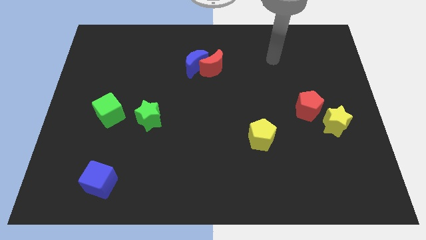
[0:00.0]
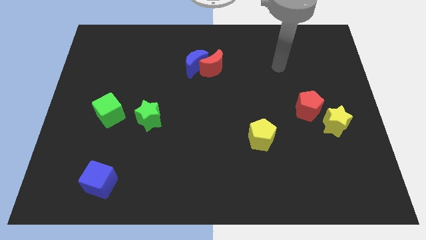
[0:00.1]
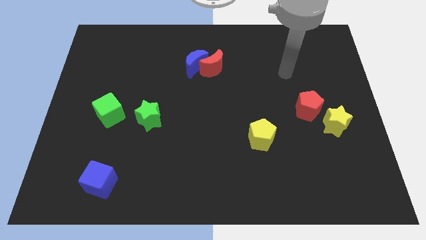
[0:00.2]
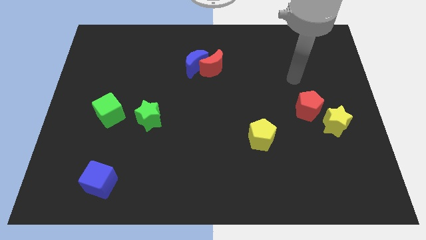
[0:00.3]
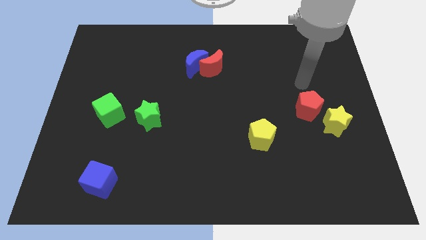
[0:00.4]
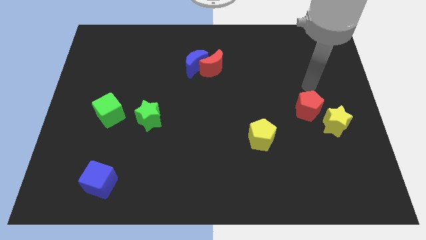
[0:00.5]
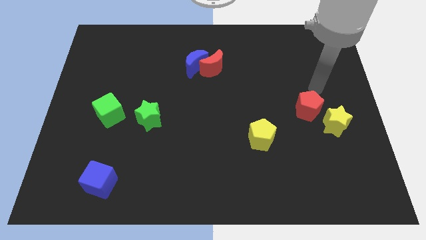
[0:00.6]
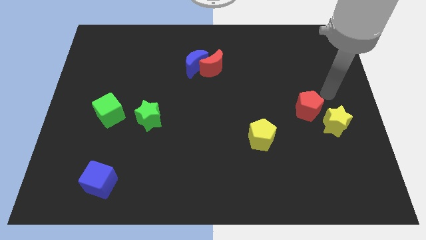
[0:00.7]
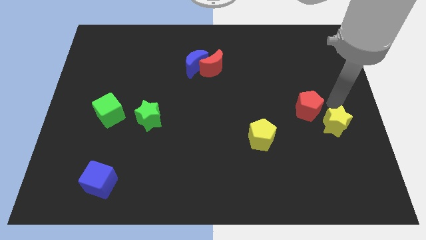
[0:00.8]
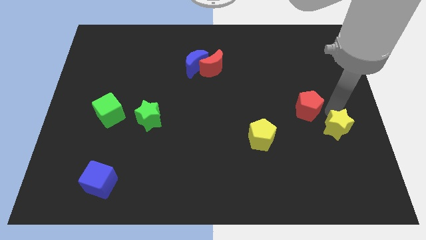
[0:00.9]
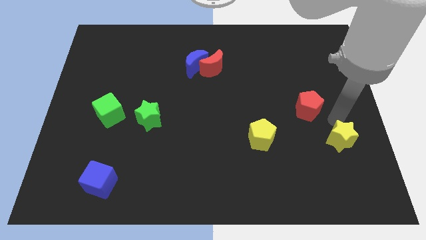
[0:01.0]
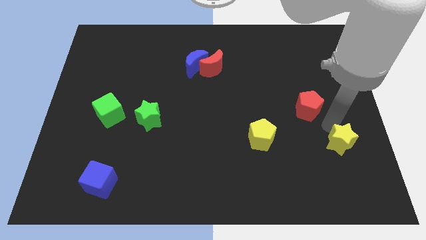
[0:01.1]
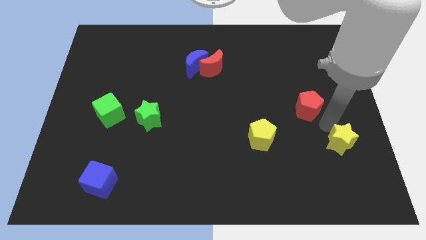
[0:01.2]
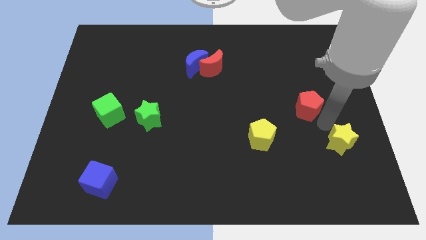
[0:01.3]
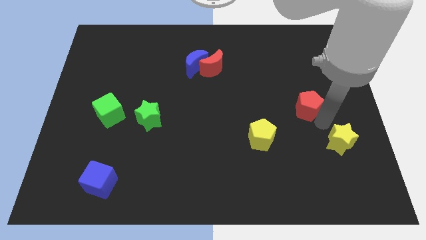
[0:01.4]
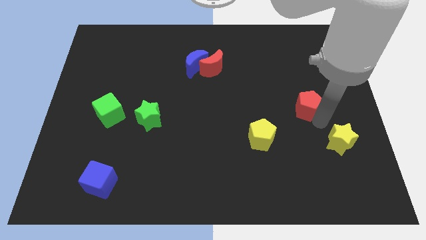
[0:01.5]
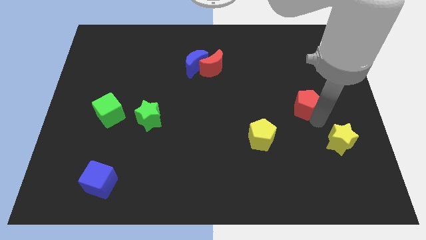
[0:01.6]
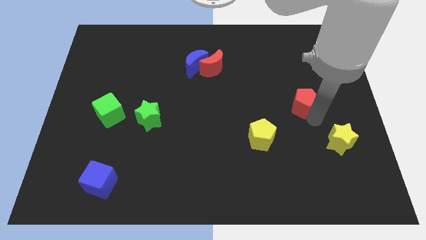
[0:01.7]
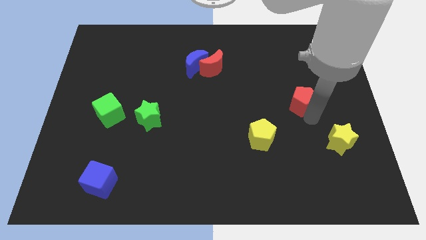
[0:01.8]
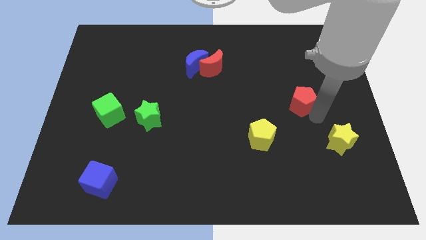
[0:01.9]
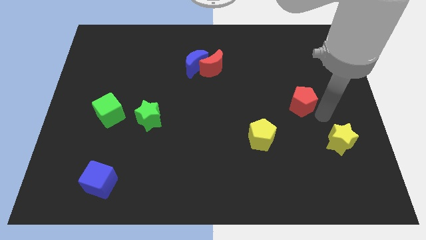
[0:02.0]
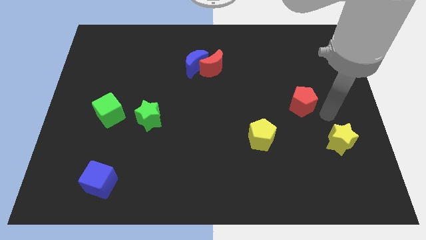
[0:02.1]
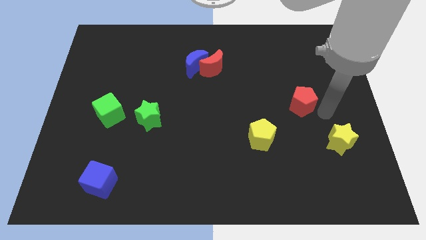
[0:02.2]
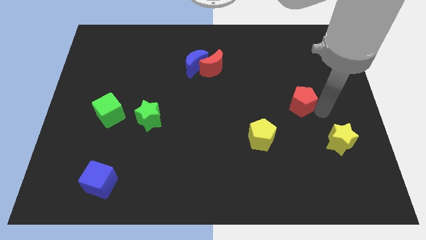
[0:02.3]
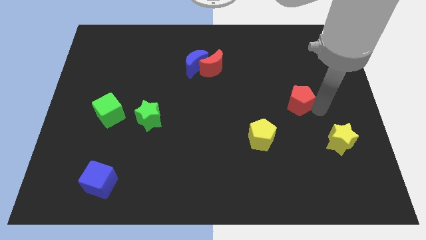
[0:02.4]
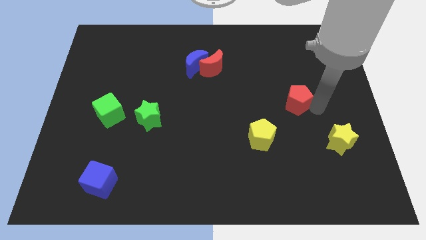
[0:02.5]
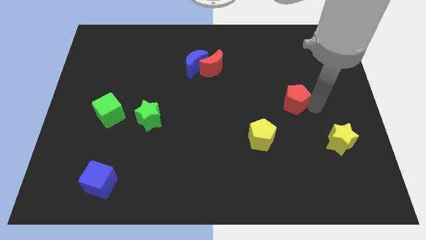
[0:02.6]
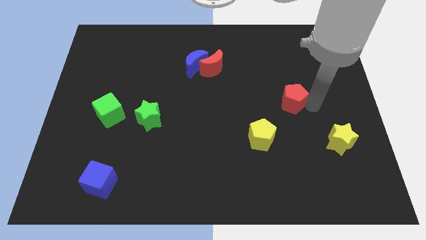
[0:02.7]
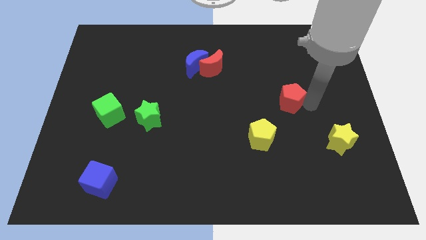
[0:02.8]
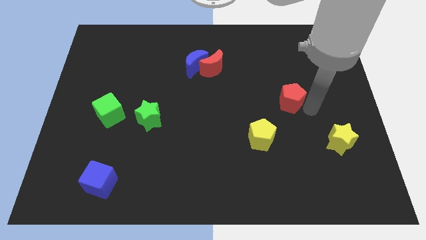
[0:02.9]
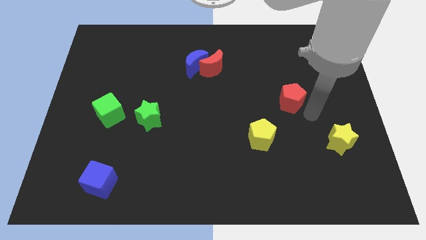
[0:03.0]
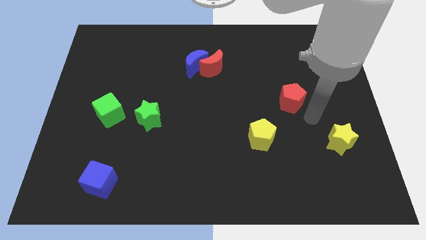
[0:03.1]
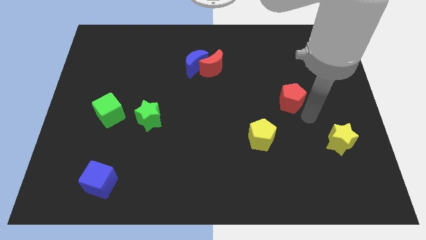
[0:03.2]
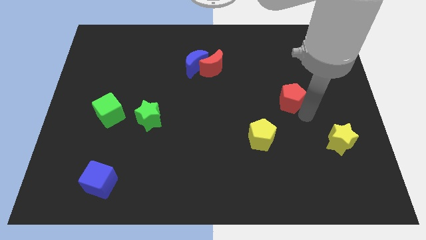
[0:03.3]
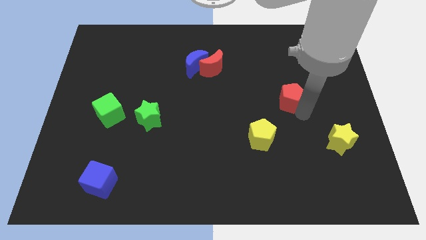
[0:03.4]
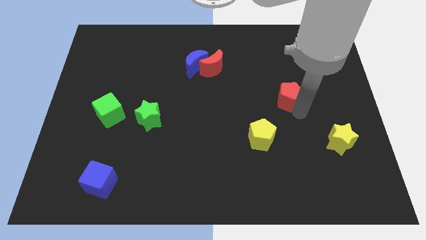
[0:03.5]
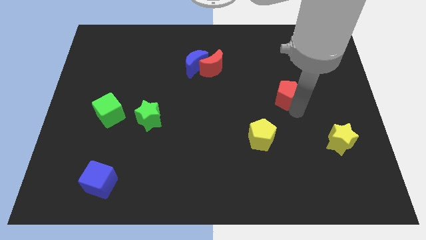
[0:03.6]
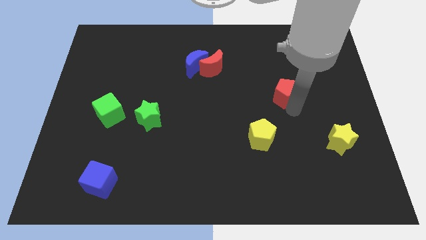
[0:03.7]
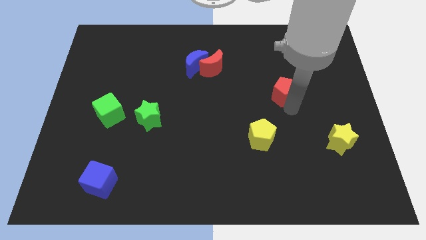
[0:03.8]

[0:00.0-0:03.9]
slightly push the red pentagon upwards and left diagonally

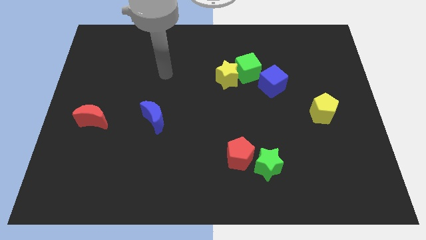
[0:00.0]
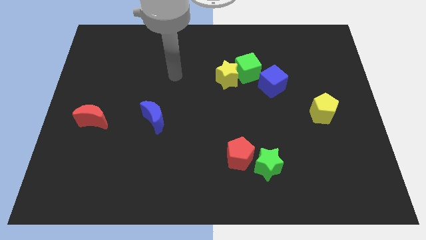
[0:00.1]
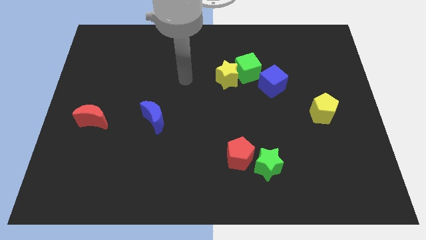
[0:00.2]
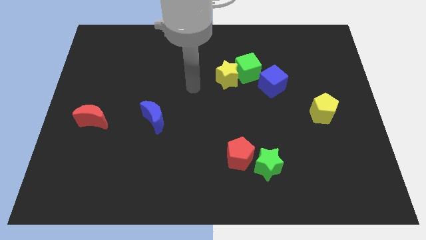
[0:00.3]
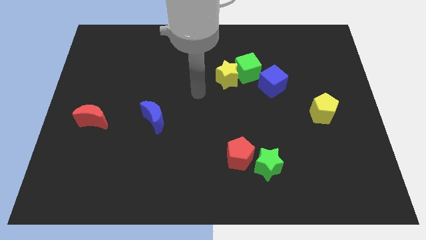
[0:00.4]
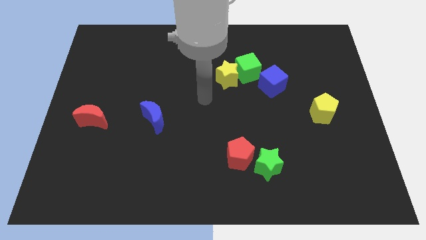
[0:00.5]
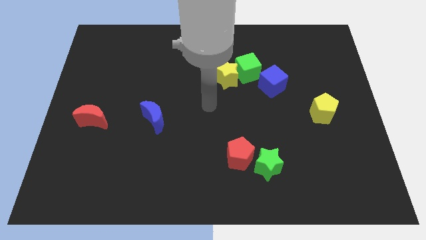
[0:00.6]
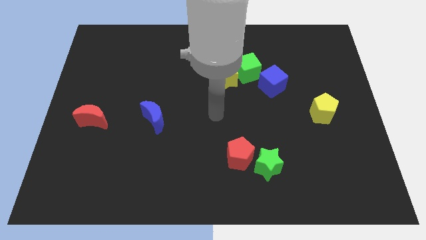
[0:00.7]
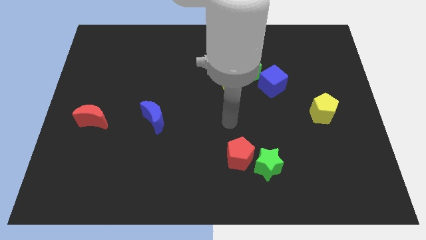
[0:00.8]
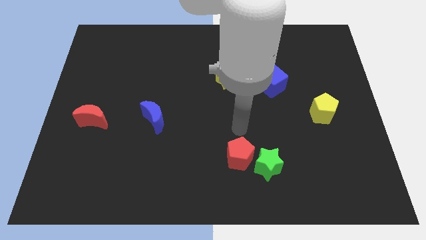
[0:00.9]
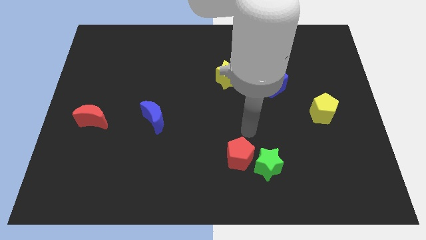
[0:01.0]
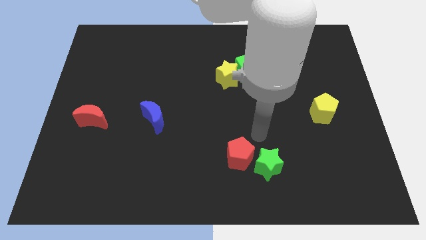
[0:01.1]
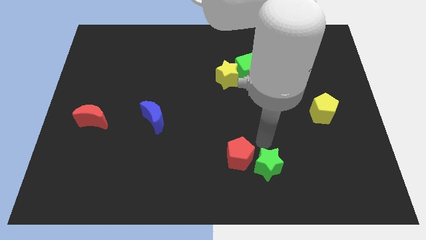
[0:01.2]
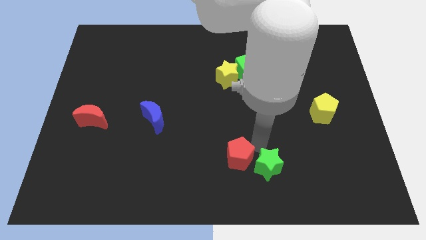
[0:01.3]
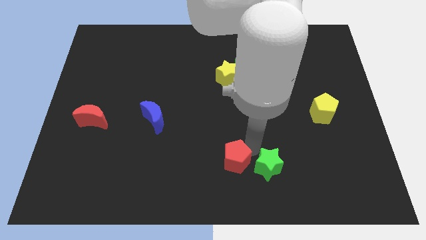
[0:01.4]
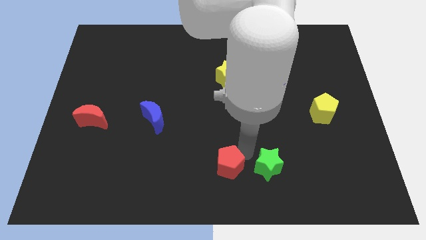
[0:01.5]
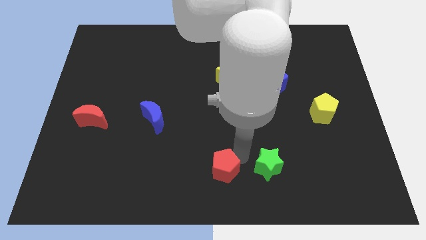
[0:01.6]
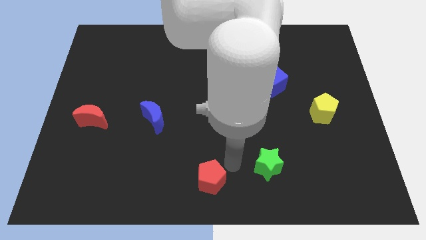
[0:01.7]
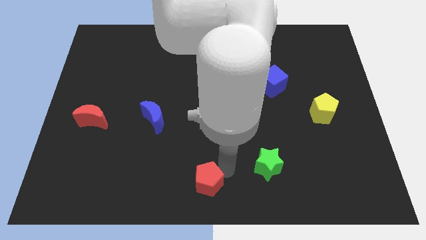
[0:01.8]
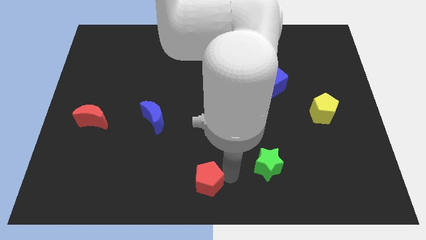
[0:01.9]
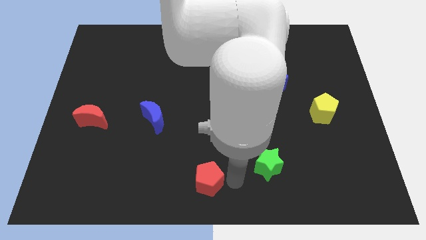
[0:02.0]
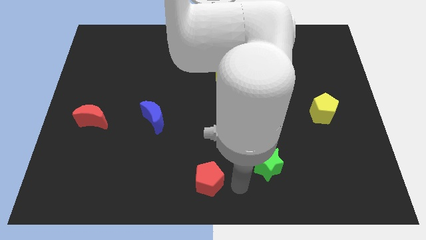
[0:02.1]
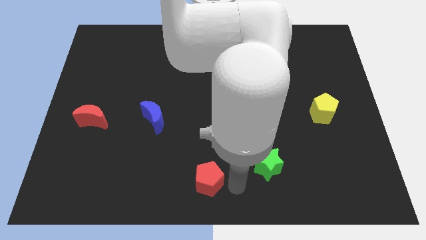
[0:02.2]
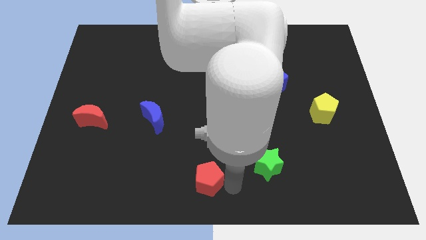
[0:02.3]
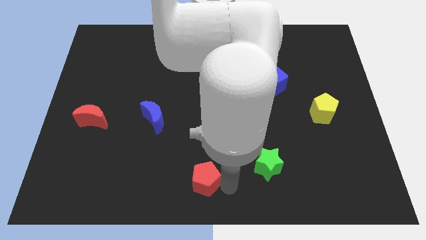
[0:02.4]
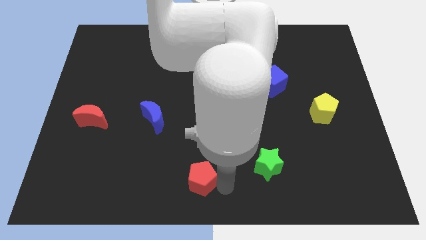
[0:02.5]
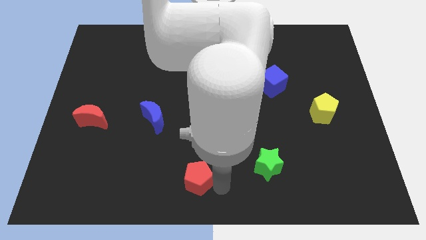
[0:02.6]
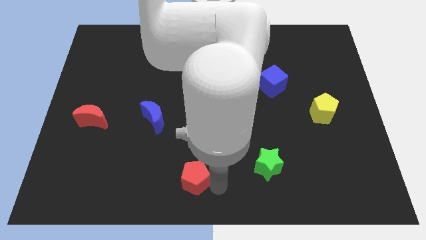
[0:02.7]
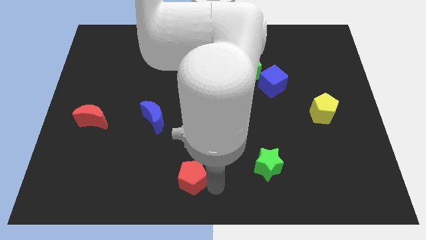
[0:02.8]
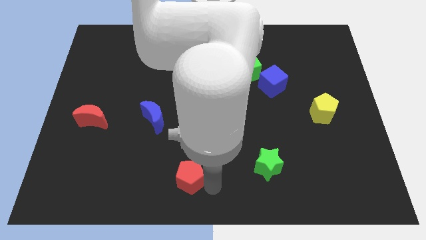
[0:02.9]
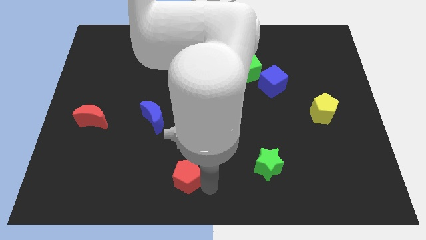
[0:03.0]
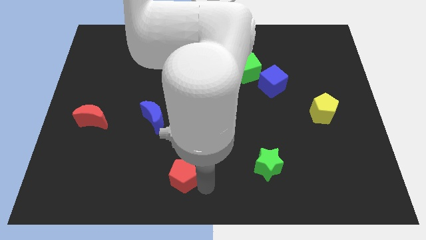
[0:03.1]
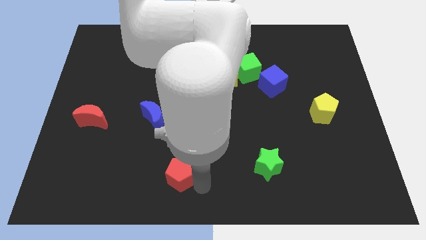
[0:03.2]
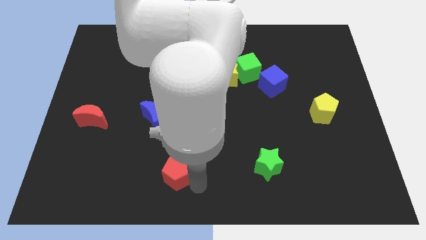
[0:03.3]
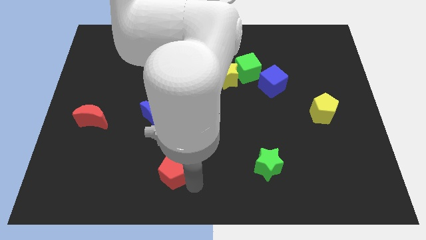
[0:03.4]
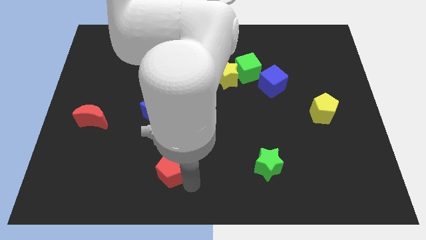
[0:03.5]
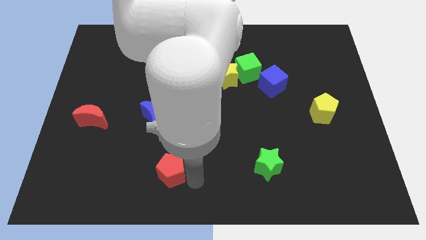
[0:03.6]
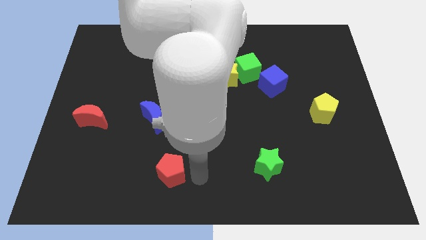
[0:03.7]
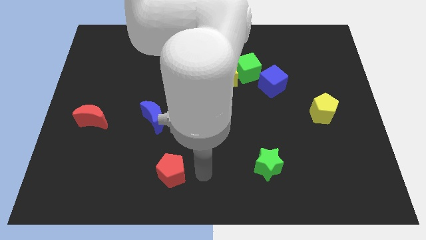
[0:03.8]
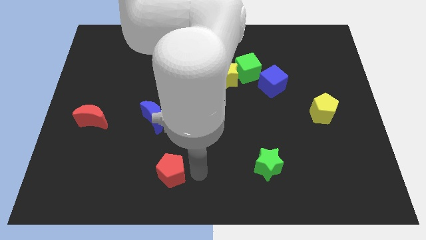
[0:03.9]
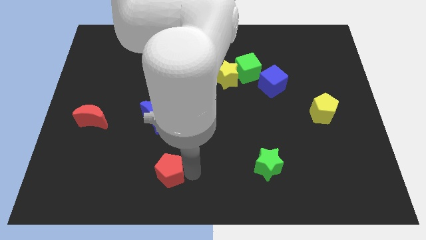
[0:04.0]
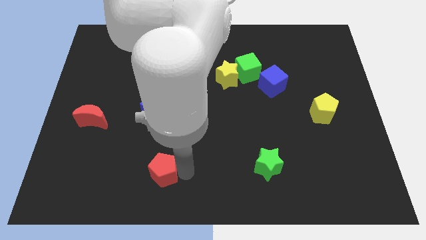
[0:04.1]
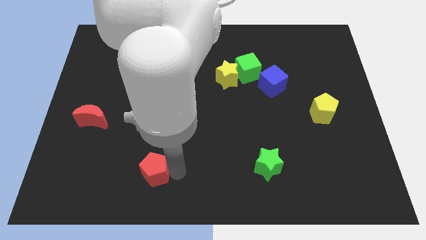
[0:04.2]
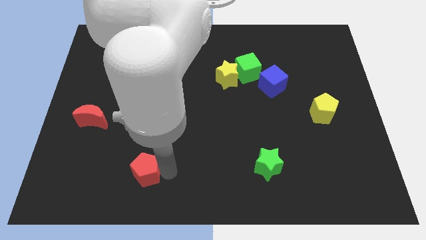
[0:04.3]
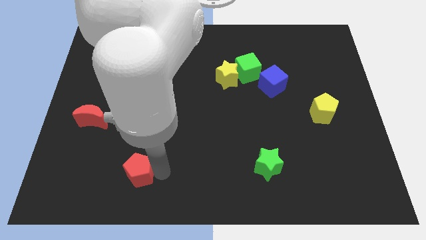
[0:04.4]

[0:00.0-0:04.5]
push the red pentagon left
